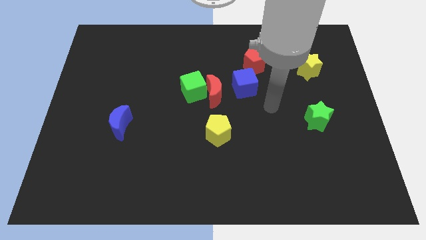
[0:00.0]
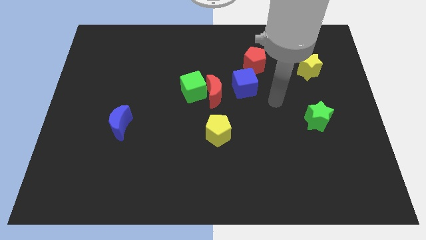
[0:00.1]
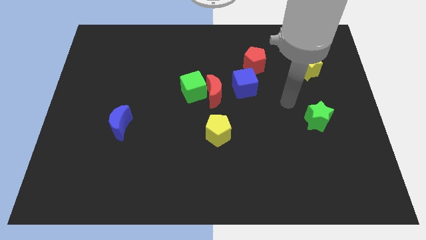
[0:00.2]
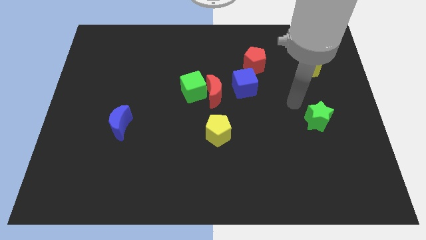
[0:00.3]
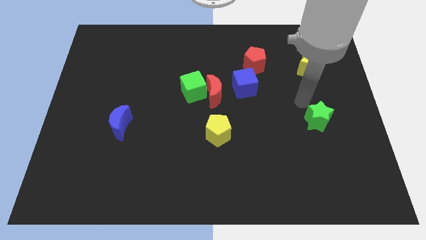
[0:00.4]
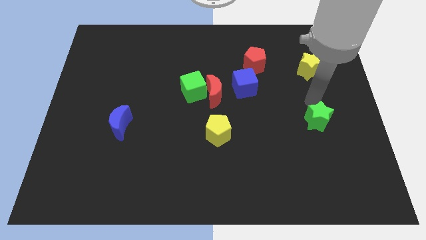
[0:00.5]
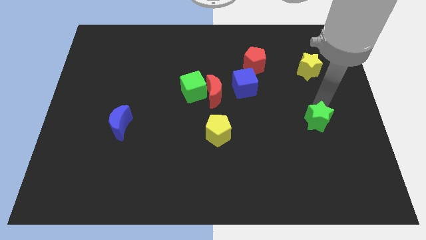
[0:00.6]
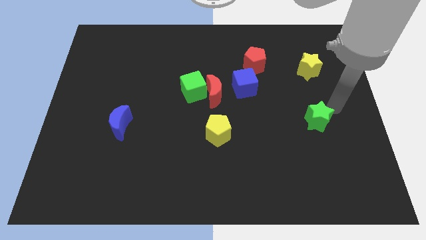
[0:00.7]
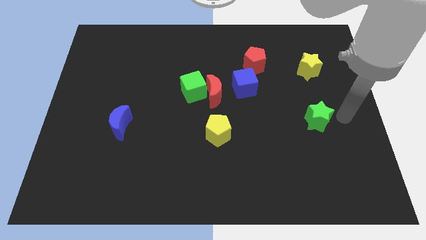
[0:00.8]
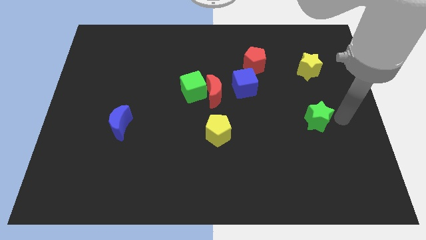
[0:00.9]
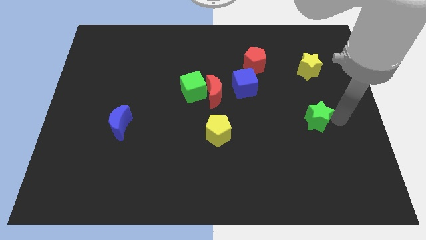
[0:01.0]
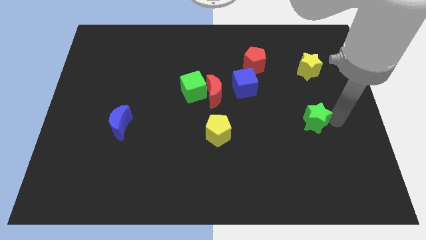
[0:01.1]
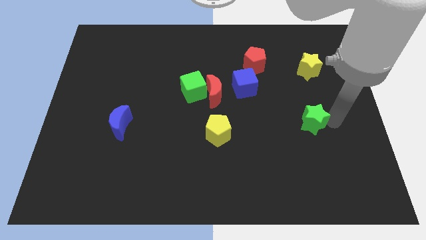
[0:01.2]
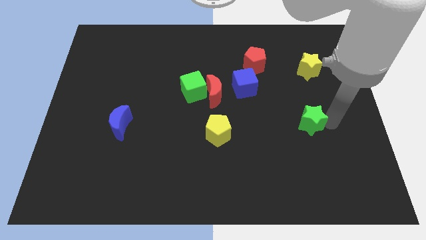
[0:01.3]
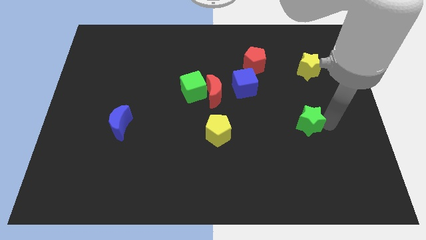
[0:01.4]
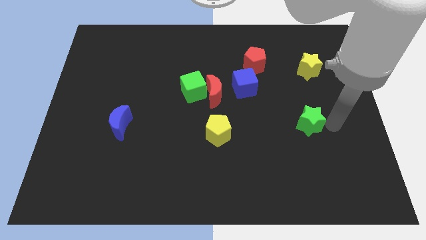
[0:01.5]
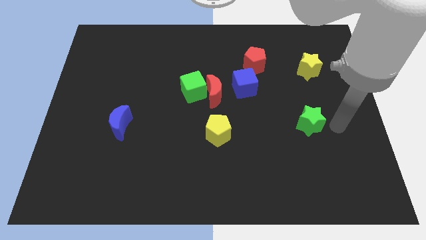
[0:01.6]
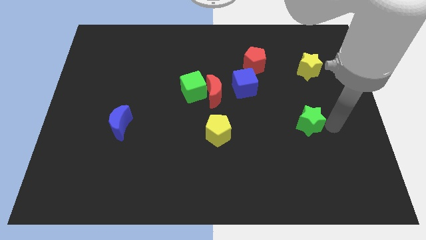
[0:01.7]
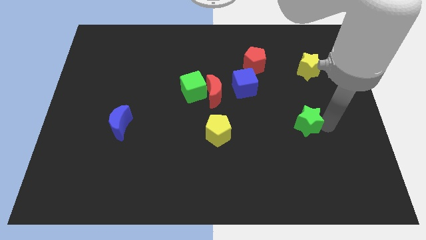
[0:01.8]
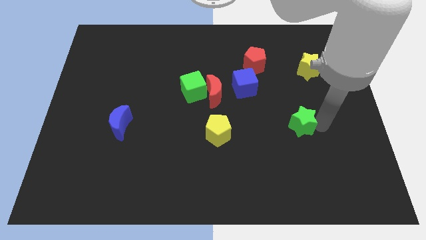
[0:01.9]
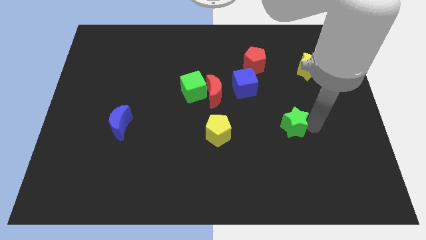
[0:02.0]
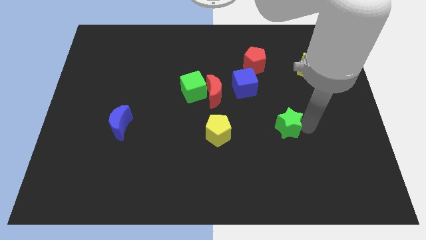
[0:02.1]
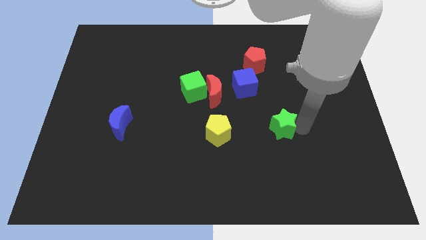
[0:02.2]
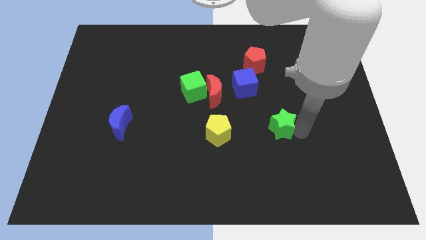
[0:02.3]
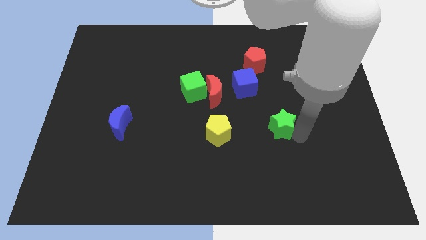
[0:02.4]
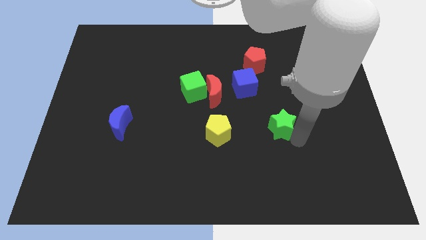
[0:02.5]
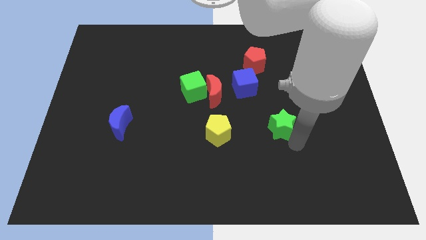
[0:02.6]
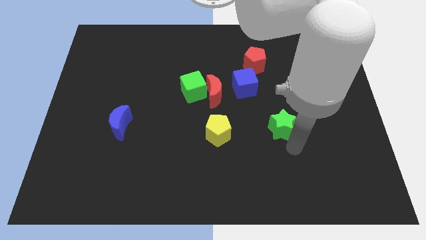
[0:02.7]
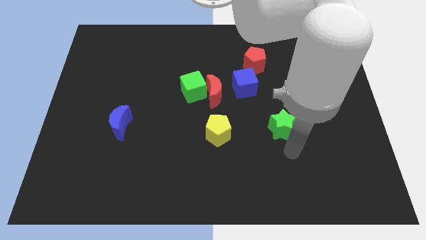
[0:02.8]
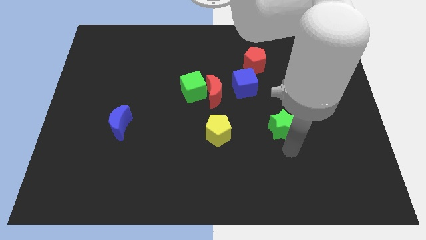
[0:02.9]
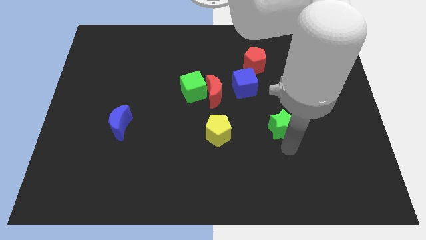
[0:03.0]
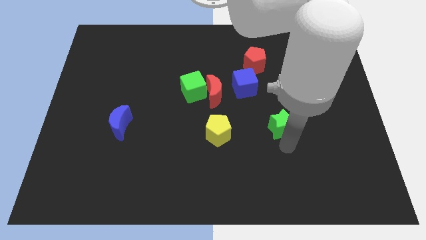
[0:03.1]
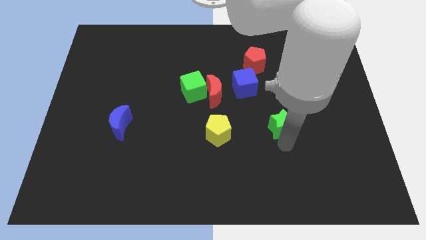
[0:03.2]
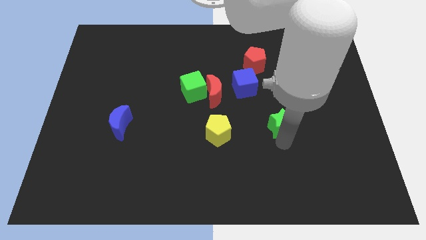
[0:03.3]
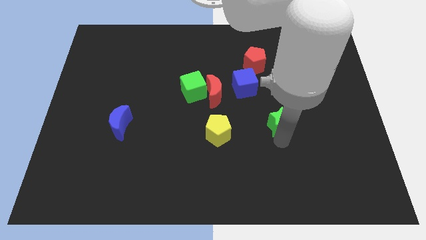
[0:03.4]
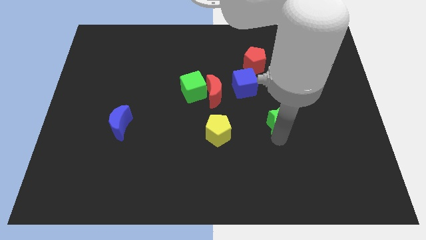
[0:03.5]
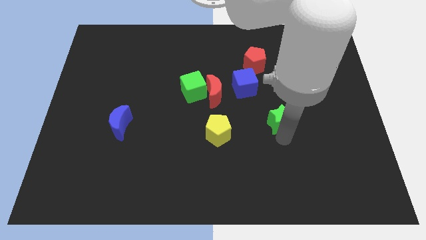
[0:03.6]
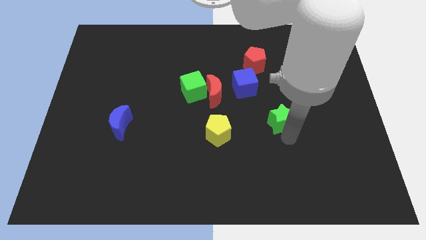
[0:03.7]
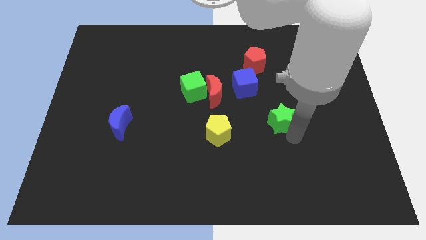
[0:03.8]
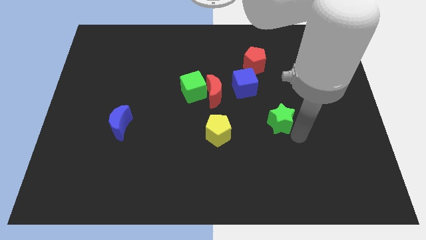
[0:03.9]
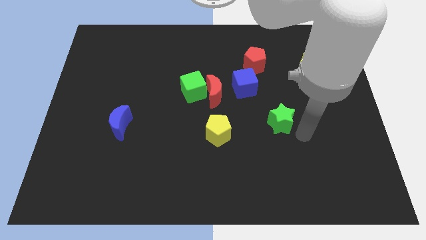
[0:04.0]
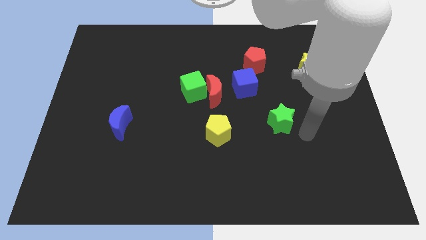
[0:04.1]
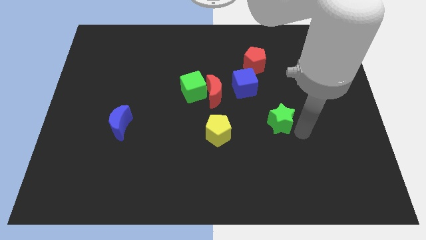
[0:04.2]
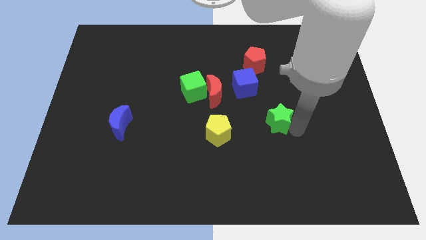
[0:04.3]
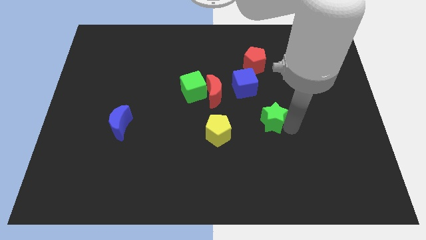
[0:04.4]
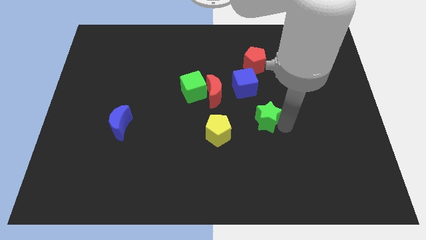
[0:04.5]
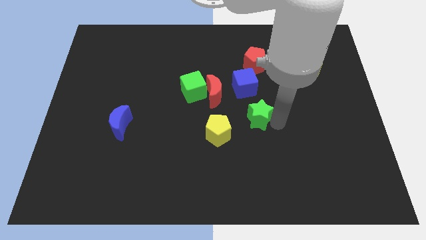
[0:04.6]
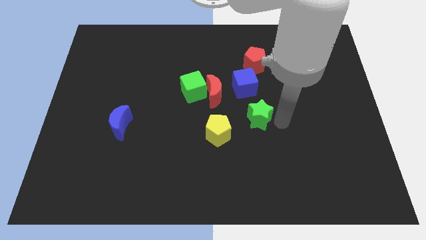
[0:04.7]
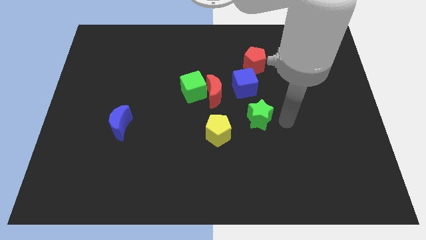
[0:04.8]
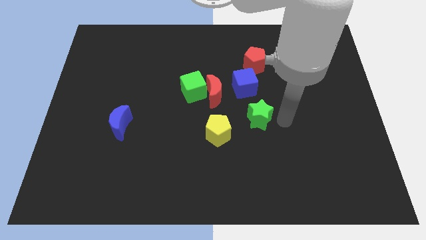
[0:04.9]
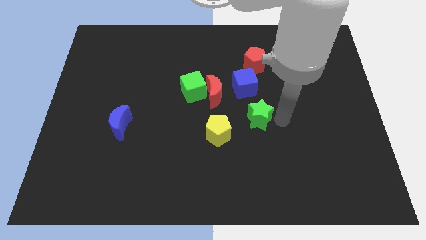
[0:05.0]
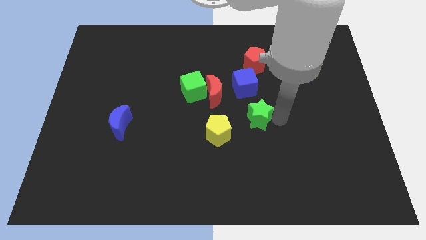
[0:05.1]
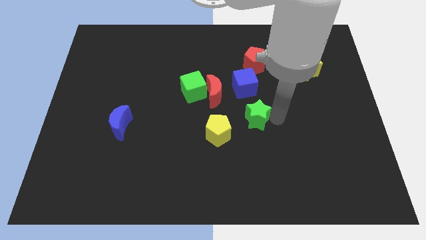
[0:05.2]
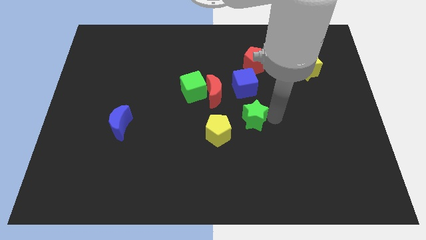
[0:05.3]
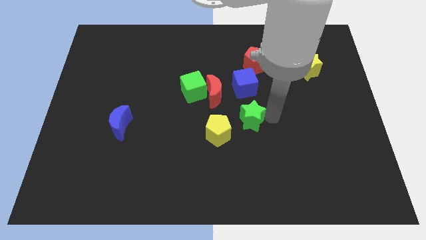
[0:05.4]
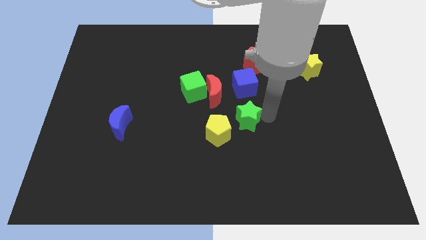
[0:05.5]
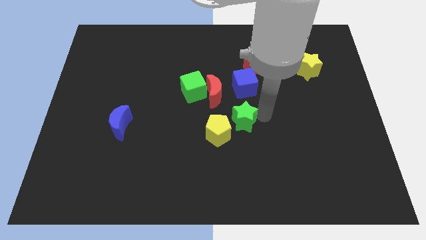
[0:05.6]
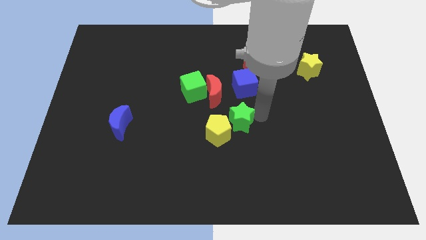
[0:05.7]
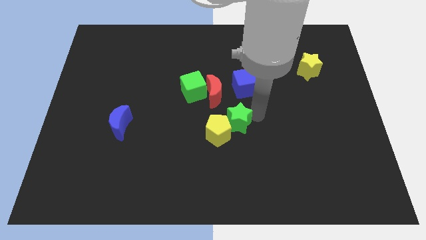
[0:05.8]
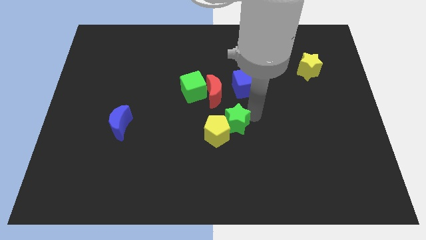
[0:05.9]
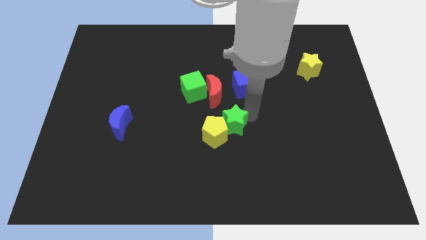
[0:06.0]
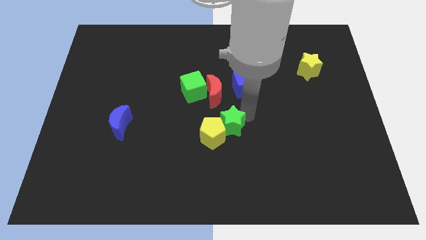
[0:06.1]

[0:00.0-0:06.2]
push the green star to the left
